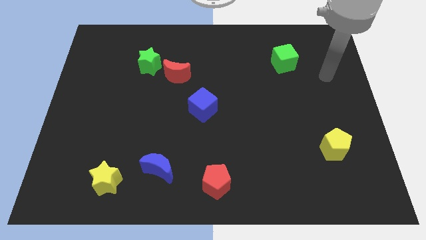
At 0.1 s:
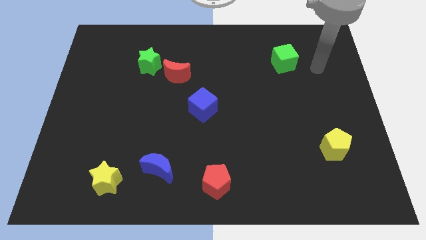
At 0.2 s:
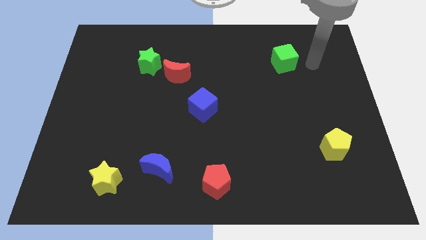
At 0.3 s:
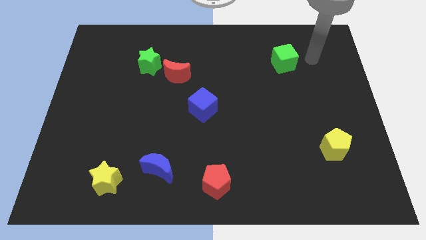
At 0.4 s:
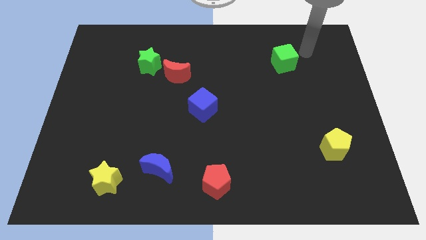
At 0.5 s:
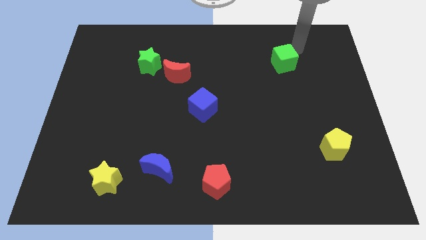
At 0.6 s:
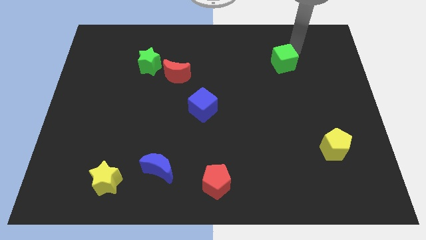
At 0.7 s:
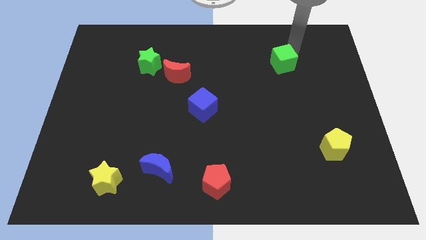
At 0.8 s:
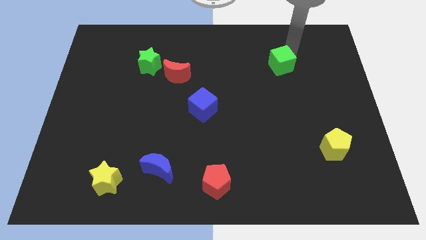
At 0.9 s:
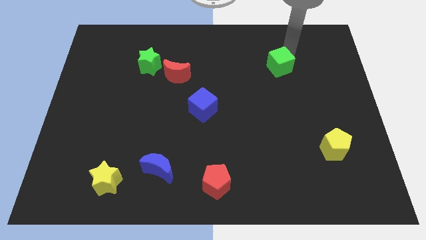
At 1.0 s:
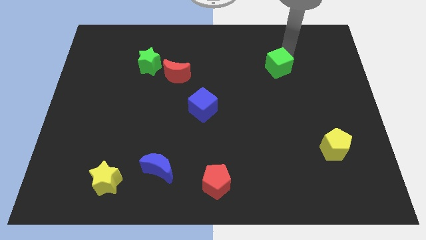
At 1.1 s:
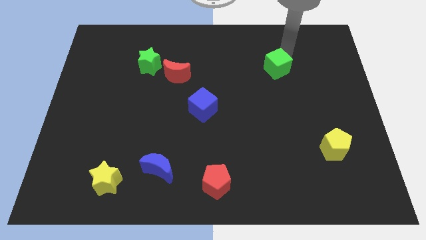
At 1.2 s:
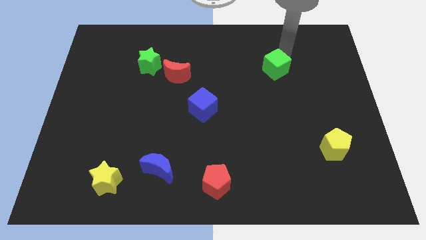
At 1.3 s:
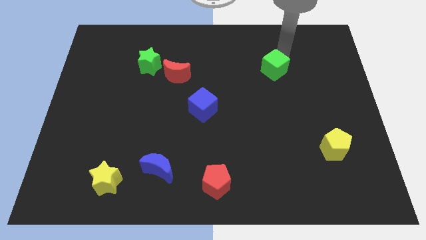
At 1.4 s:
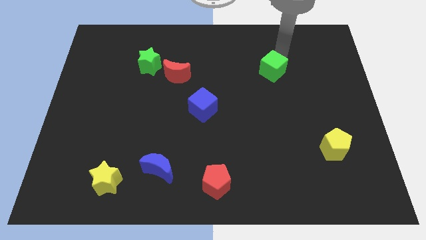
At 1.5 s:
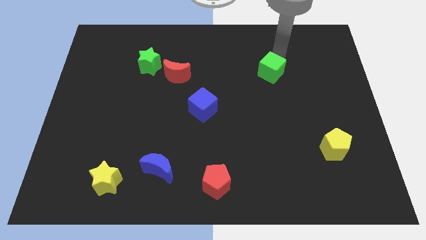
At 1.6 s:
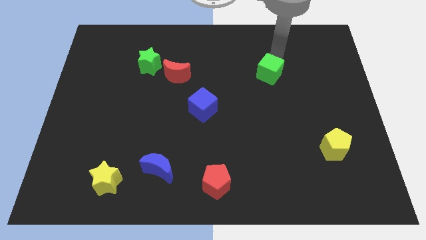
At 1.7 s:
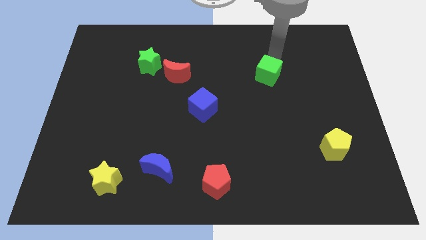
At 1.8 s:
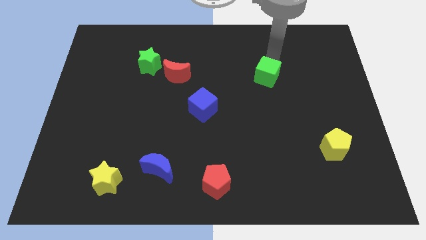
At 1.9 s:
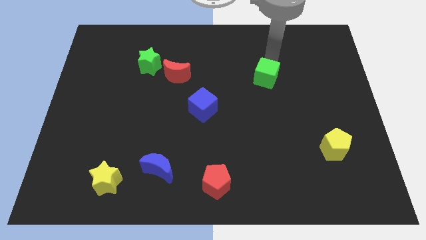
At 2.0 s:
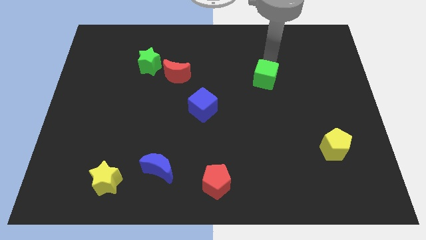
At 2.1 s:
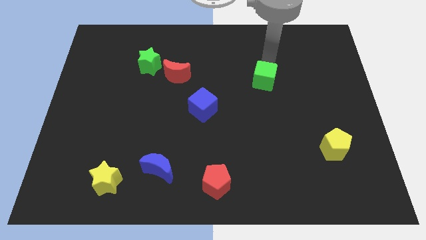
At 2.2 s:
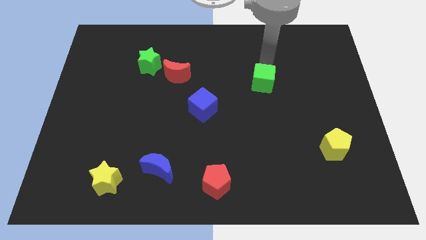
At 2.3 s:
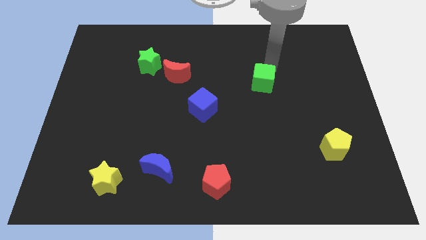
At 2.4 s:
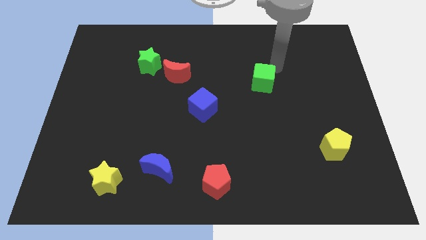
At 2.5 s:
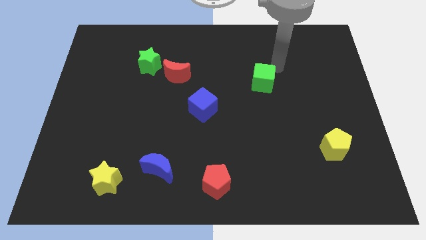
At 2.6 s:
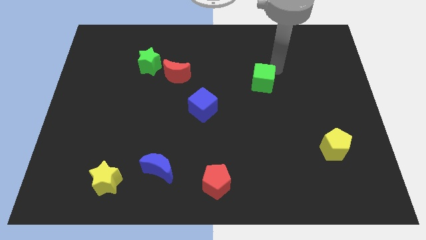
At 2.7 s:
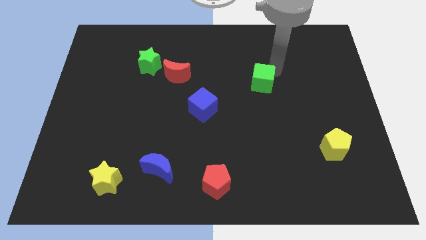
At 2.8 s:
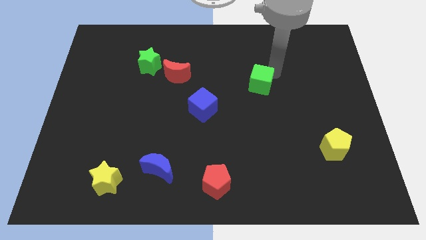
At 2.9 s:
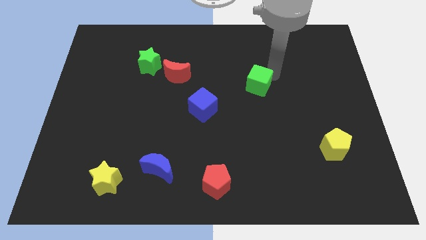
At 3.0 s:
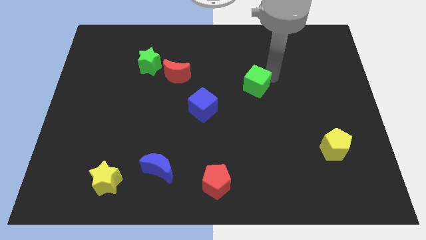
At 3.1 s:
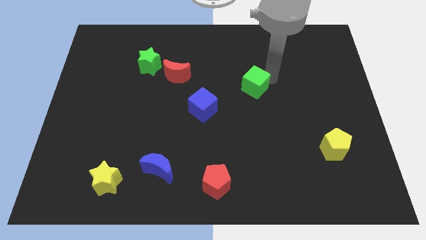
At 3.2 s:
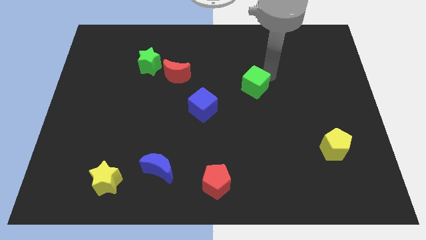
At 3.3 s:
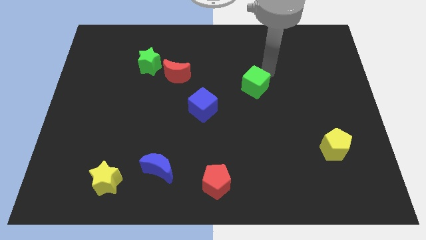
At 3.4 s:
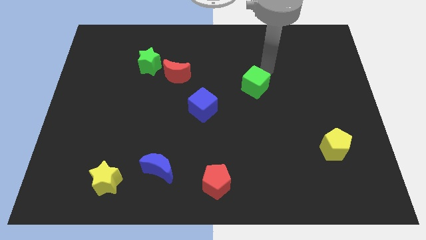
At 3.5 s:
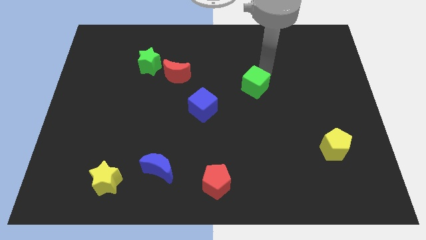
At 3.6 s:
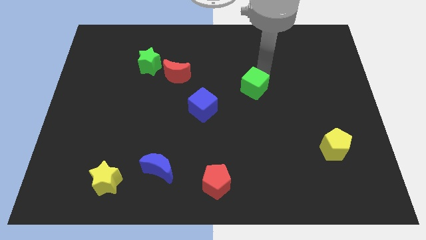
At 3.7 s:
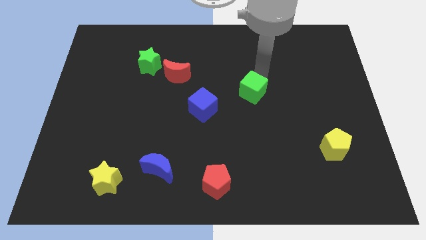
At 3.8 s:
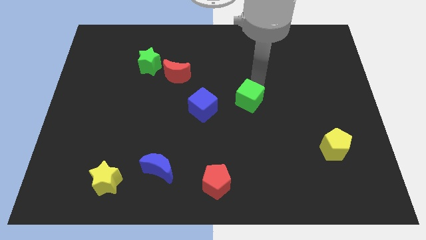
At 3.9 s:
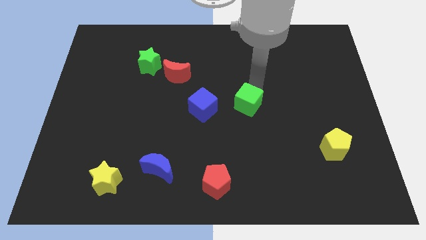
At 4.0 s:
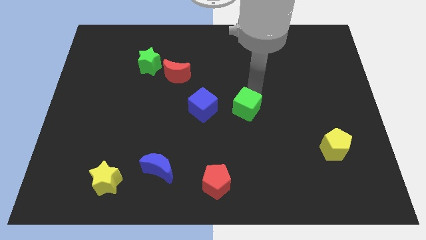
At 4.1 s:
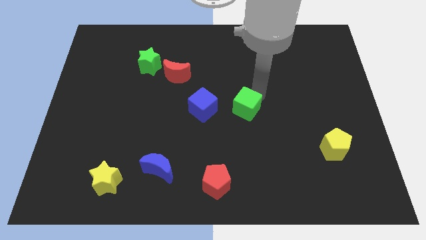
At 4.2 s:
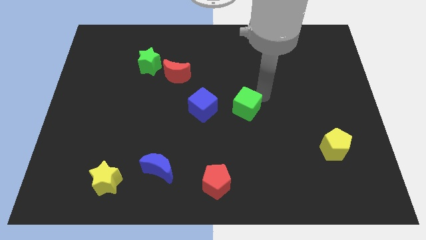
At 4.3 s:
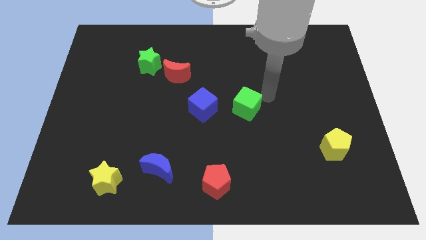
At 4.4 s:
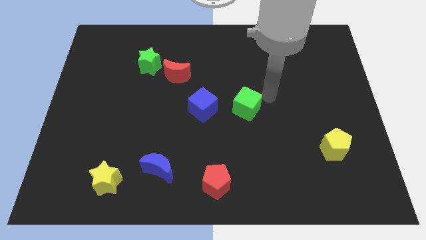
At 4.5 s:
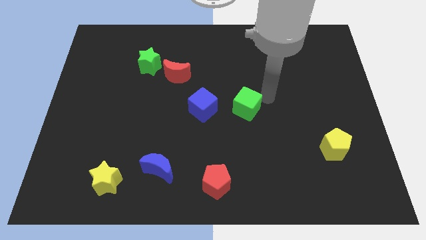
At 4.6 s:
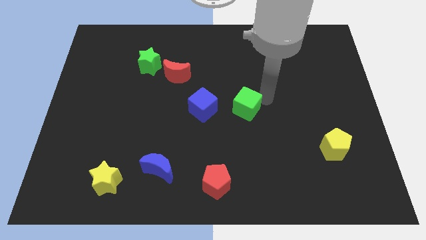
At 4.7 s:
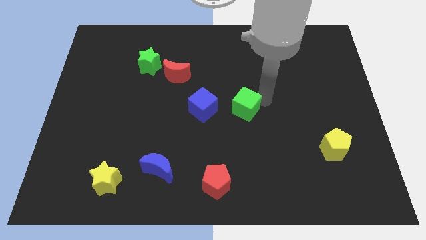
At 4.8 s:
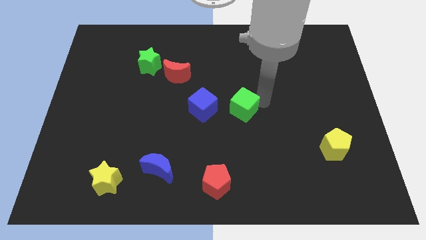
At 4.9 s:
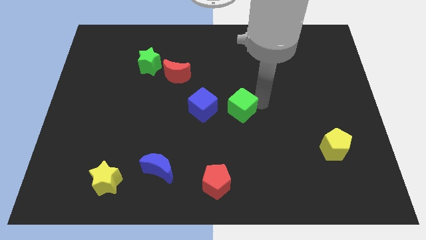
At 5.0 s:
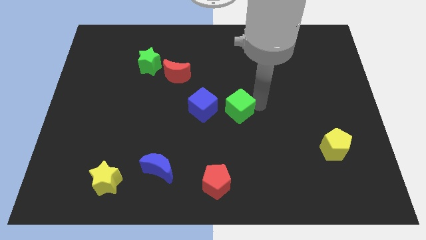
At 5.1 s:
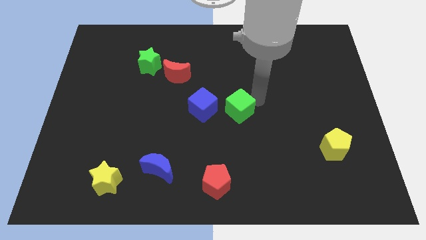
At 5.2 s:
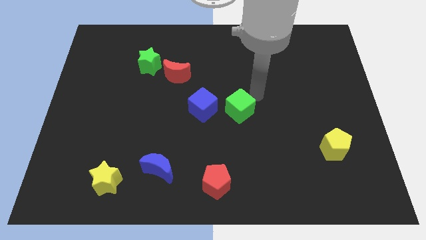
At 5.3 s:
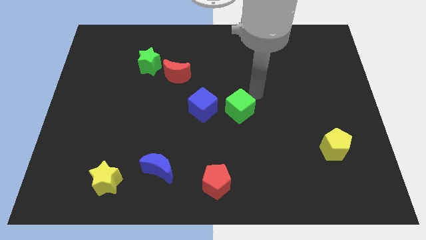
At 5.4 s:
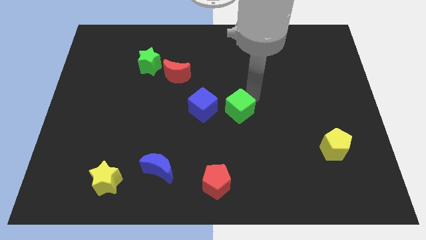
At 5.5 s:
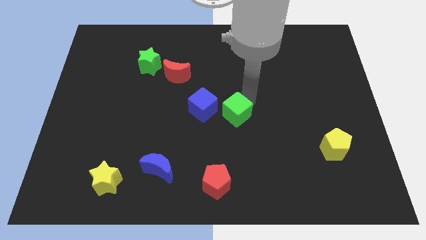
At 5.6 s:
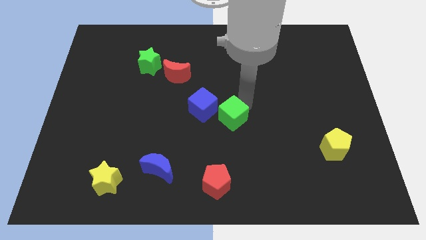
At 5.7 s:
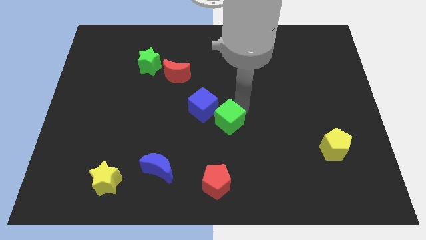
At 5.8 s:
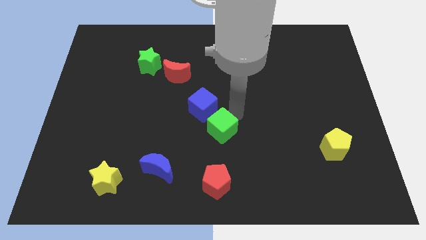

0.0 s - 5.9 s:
slide the green cube to the bottom of the blue cube

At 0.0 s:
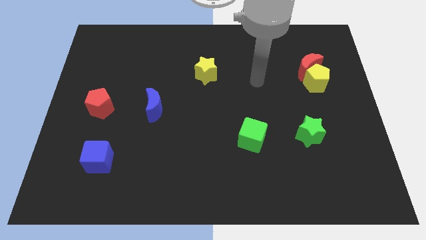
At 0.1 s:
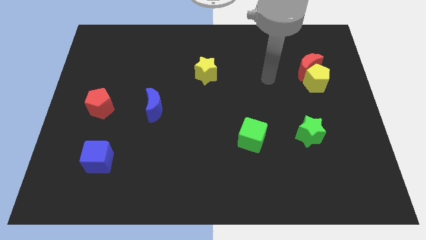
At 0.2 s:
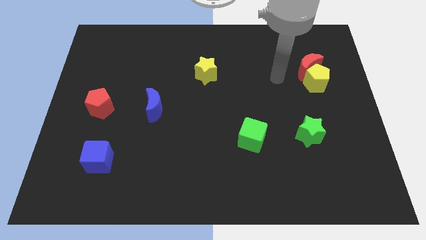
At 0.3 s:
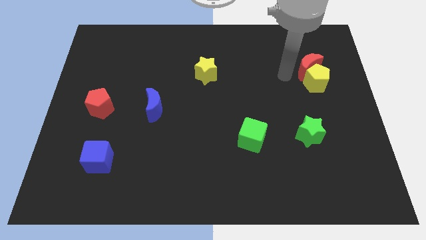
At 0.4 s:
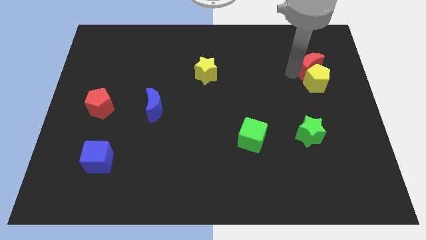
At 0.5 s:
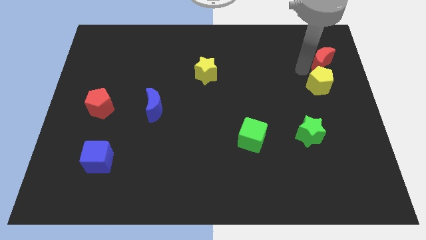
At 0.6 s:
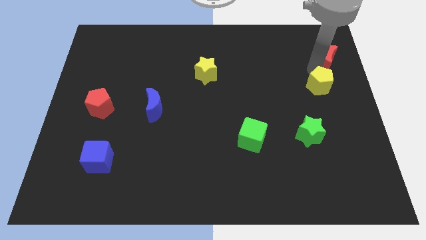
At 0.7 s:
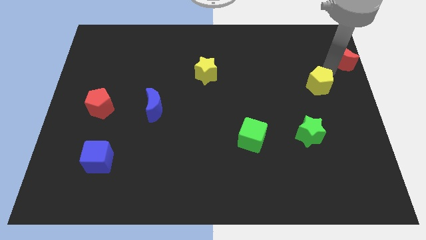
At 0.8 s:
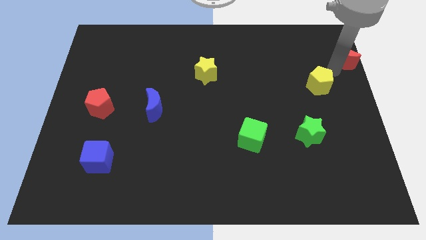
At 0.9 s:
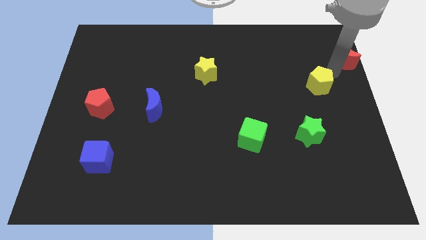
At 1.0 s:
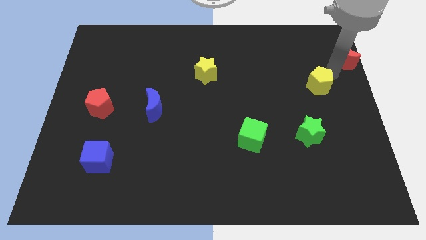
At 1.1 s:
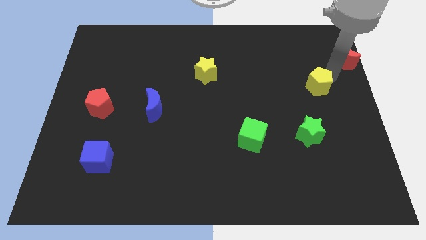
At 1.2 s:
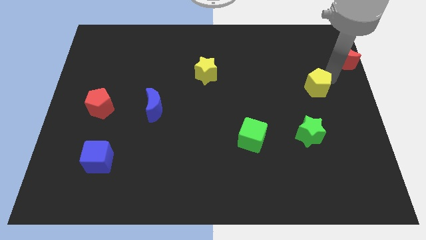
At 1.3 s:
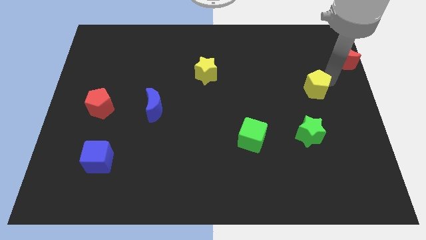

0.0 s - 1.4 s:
move the yellow pentagon to the top side of the green star
